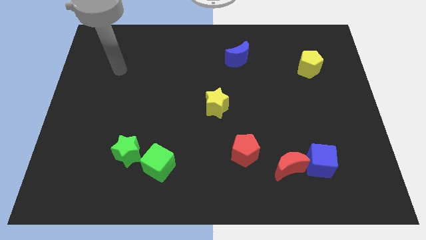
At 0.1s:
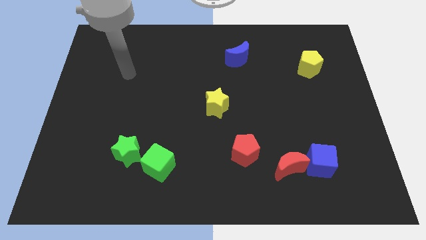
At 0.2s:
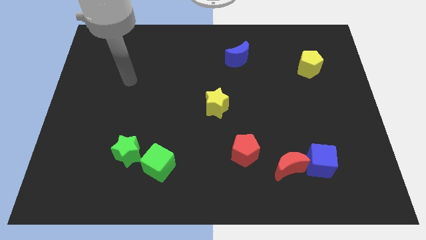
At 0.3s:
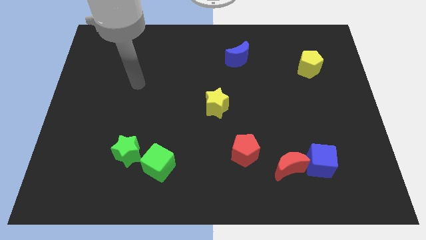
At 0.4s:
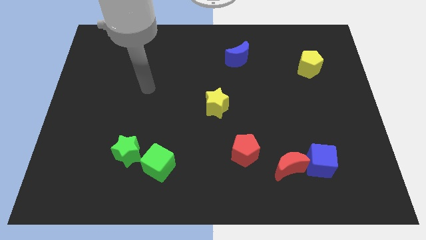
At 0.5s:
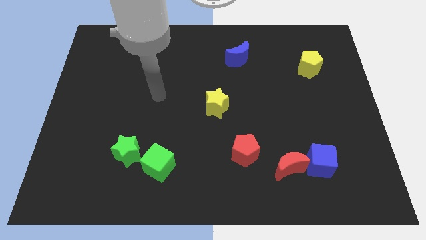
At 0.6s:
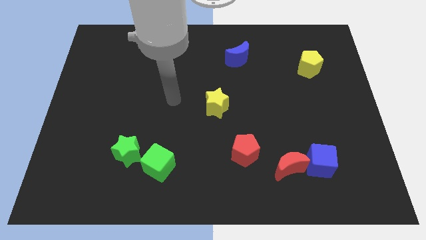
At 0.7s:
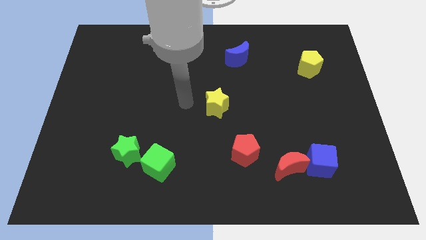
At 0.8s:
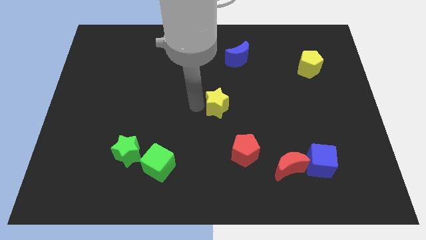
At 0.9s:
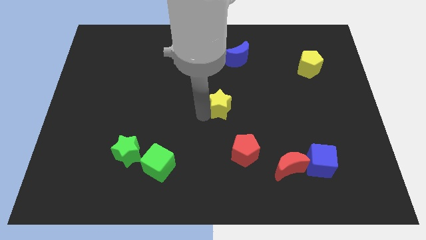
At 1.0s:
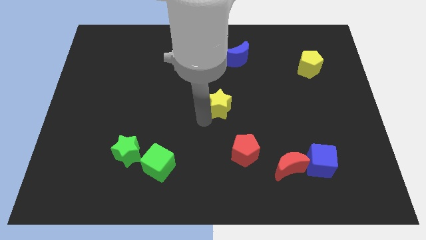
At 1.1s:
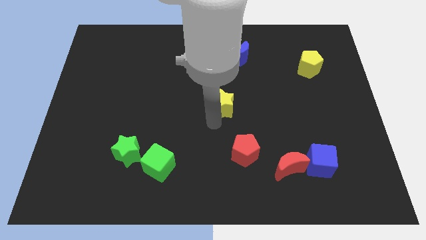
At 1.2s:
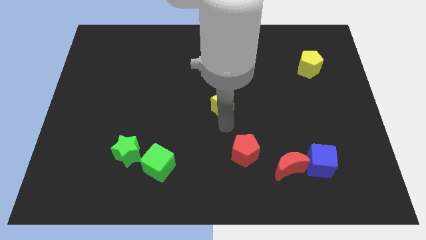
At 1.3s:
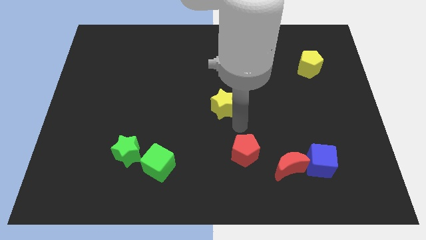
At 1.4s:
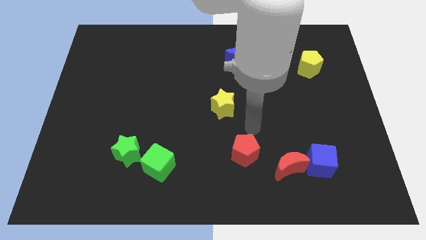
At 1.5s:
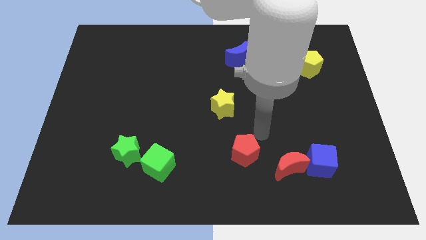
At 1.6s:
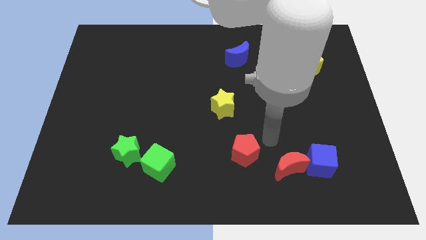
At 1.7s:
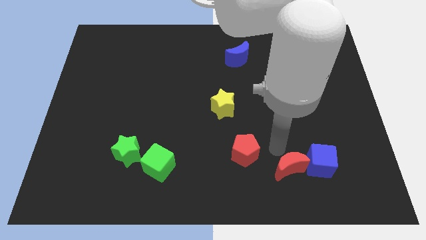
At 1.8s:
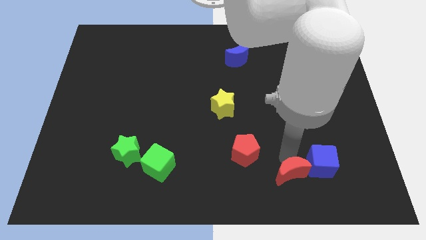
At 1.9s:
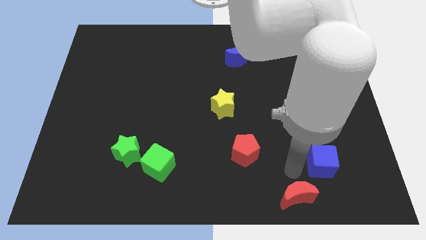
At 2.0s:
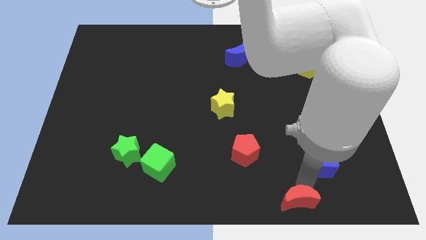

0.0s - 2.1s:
move the blue cube away from the red moon

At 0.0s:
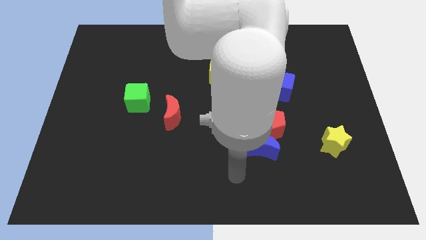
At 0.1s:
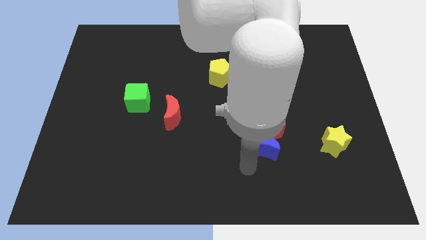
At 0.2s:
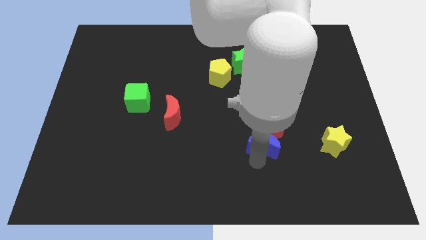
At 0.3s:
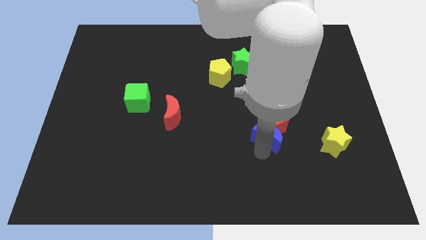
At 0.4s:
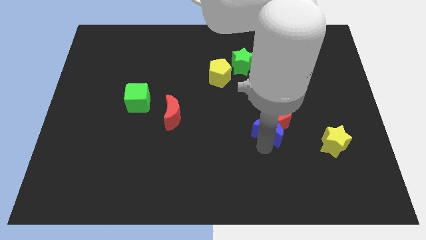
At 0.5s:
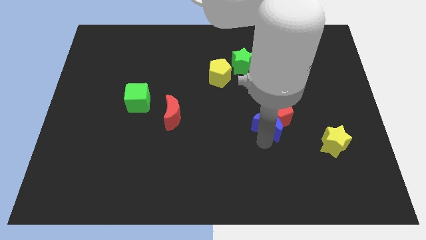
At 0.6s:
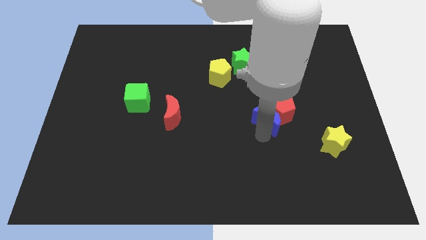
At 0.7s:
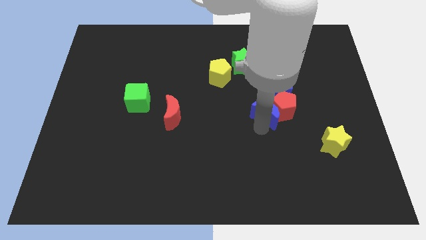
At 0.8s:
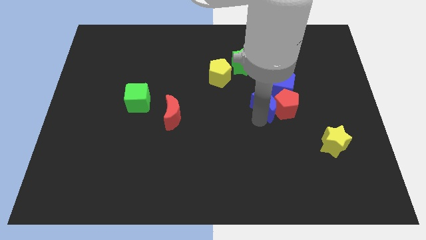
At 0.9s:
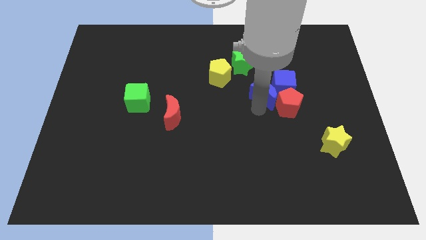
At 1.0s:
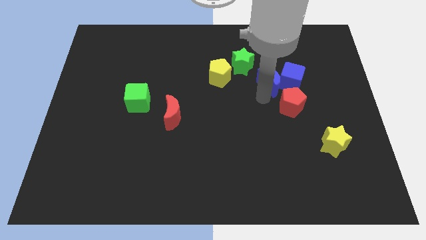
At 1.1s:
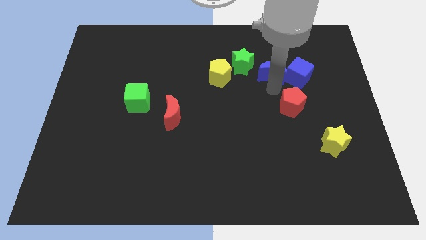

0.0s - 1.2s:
separate the red pentagon from the blue moon

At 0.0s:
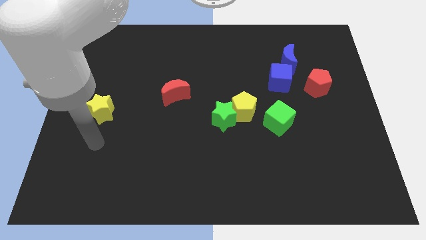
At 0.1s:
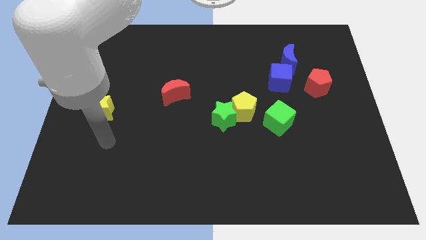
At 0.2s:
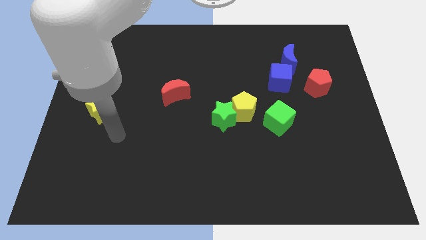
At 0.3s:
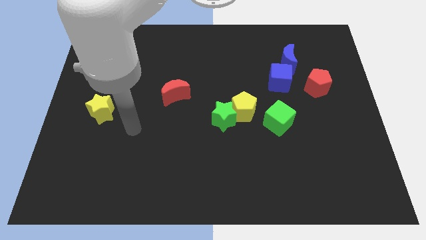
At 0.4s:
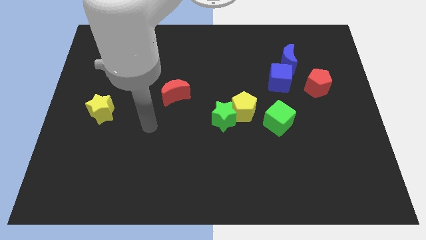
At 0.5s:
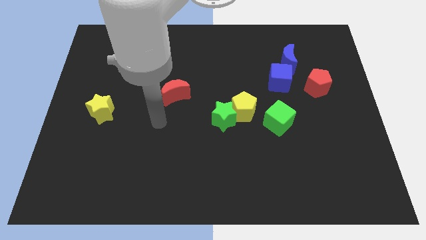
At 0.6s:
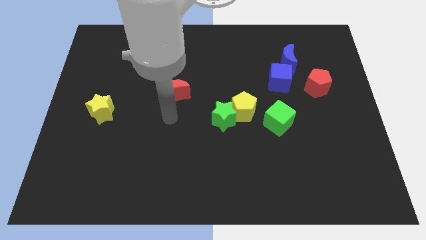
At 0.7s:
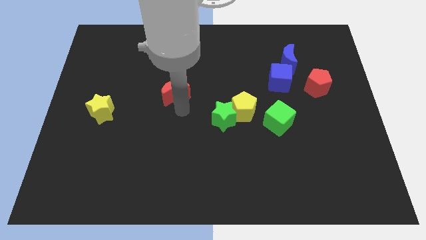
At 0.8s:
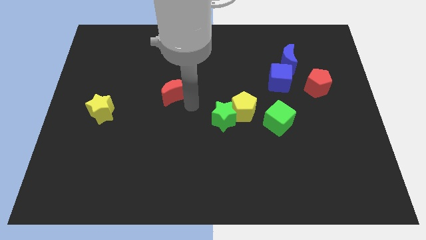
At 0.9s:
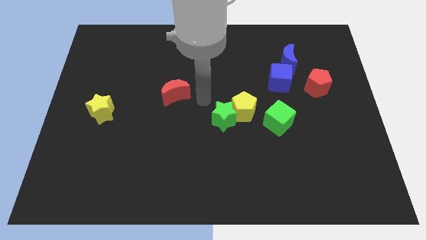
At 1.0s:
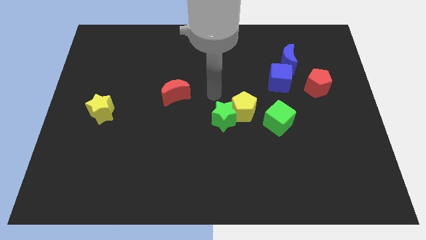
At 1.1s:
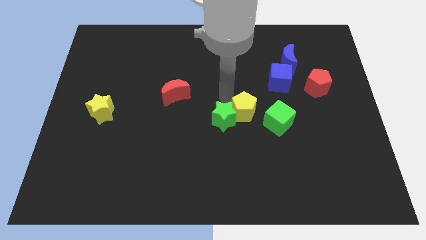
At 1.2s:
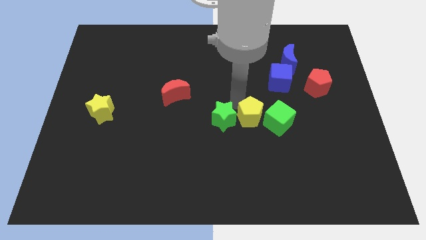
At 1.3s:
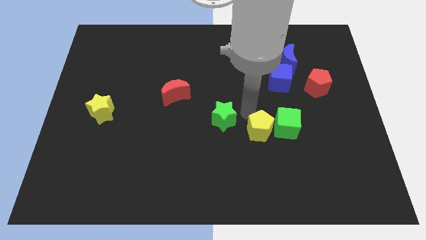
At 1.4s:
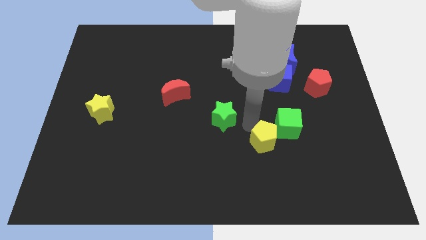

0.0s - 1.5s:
move the green star away from the yellow pentagon

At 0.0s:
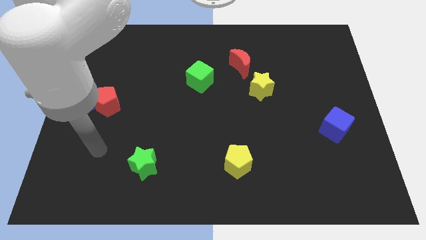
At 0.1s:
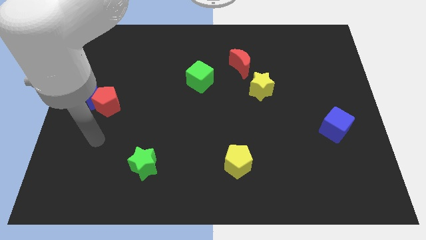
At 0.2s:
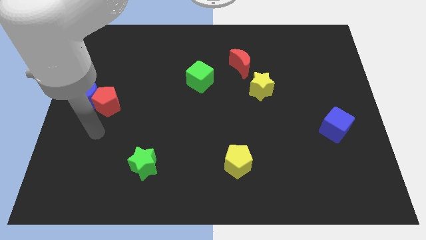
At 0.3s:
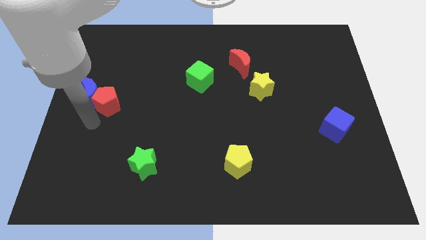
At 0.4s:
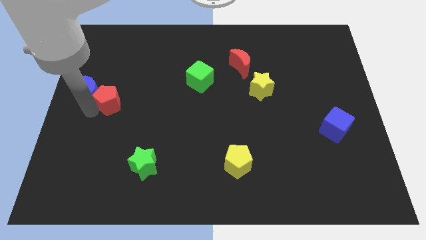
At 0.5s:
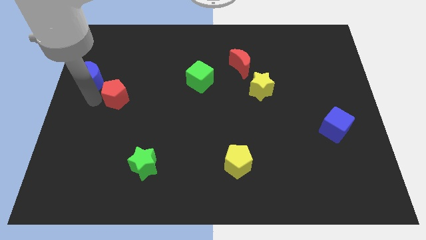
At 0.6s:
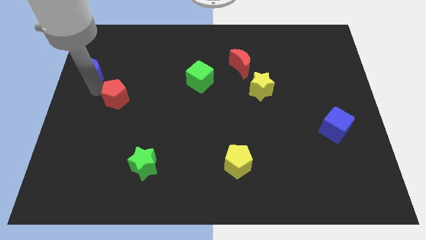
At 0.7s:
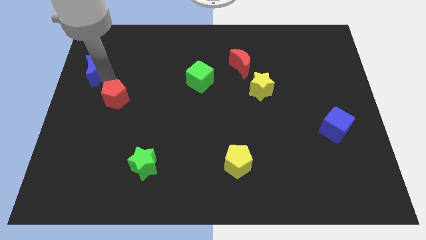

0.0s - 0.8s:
move the red pentagon away from the blue moon

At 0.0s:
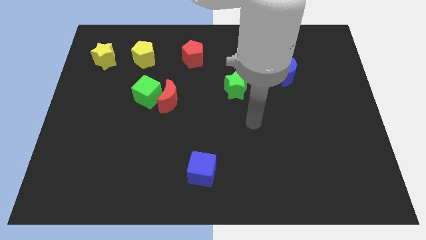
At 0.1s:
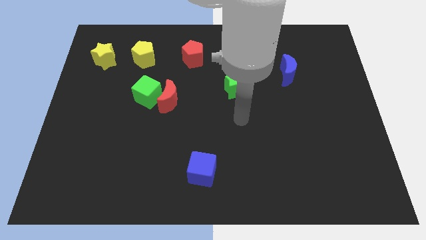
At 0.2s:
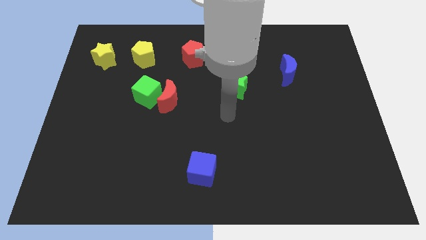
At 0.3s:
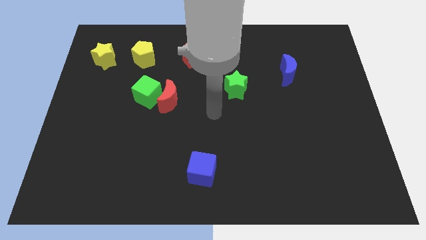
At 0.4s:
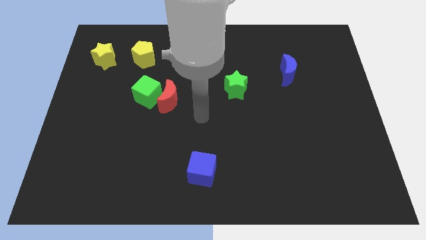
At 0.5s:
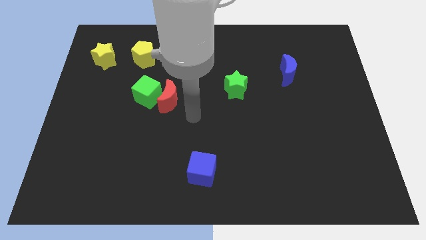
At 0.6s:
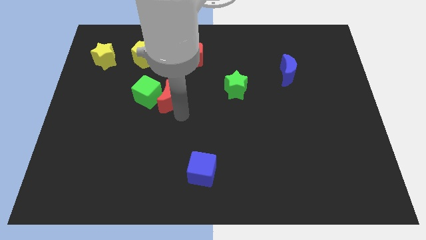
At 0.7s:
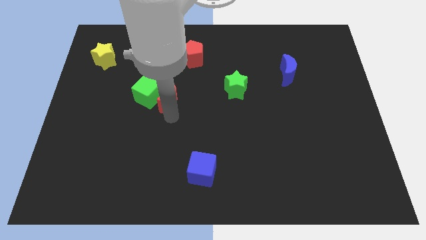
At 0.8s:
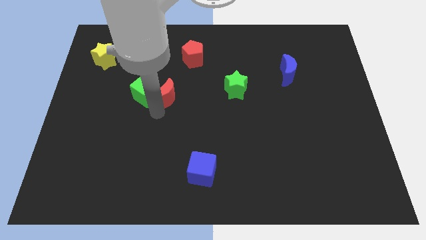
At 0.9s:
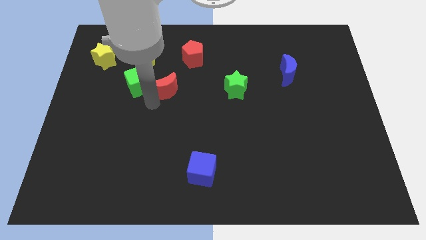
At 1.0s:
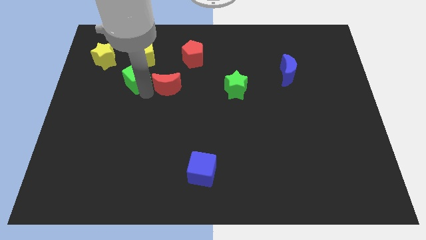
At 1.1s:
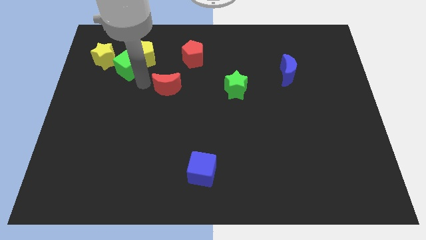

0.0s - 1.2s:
pull the red moon apart from the green cube

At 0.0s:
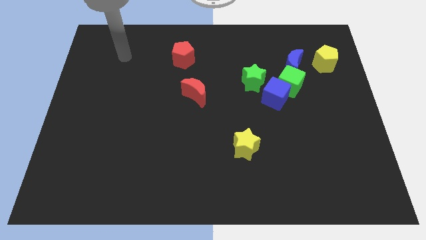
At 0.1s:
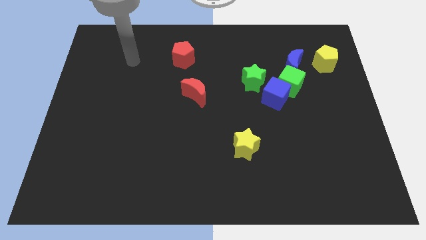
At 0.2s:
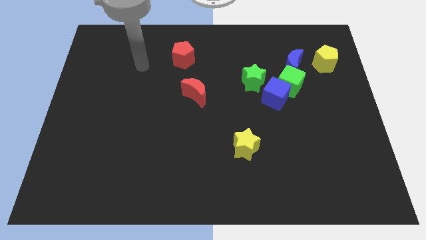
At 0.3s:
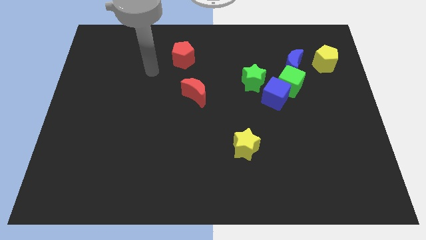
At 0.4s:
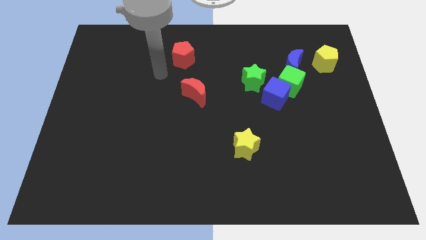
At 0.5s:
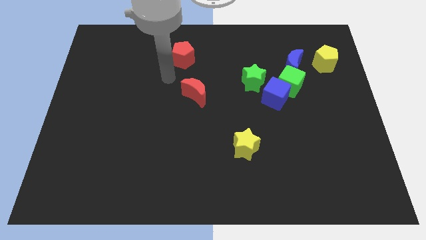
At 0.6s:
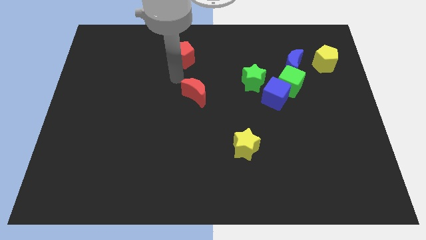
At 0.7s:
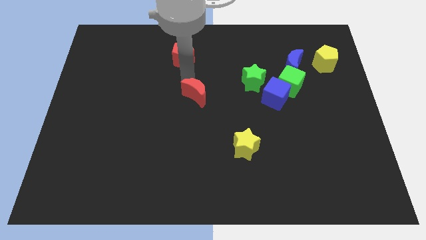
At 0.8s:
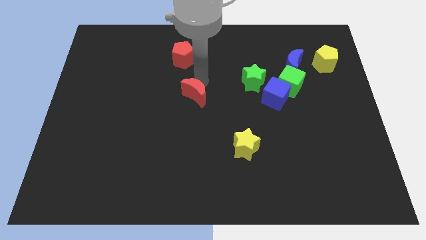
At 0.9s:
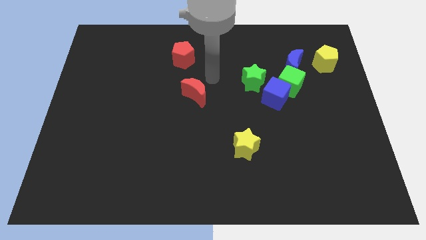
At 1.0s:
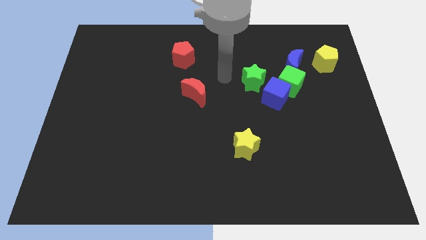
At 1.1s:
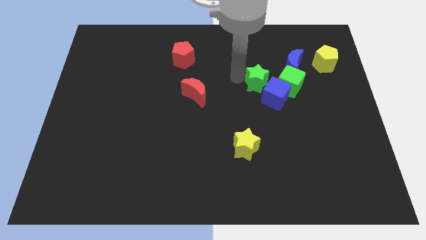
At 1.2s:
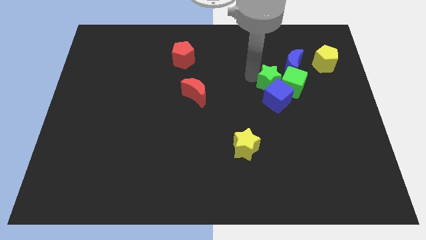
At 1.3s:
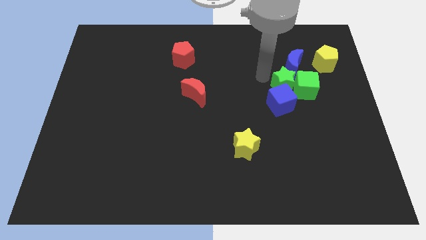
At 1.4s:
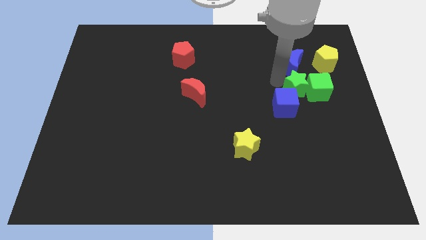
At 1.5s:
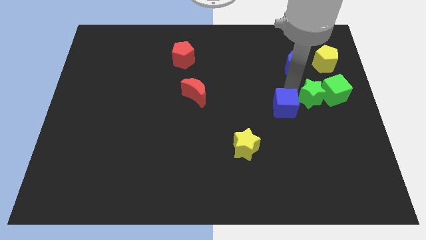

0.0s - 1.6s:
move the blue cube away from the green cube and green star

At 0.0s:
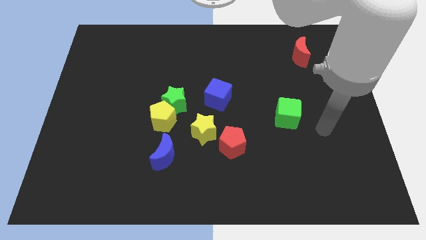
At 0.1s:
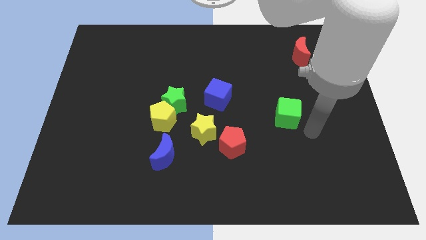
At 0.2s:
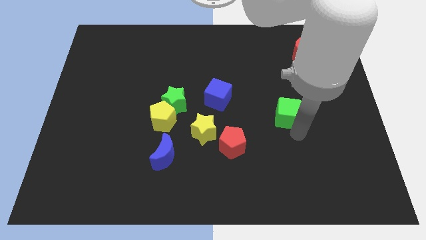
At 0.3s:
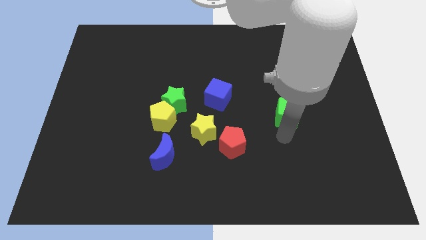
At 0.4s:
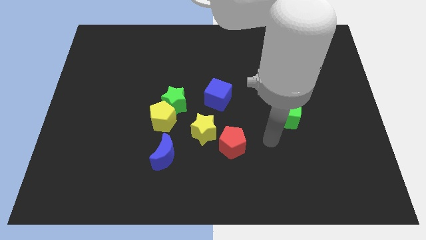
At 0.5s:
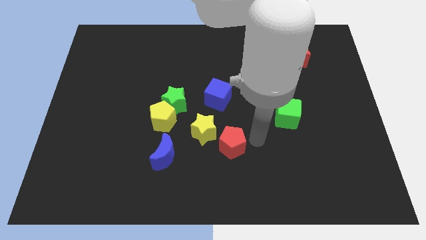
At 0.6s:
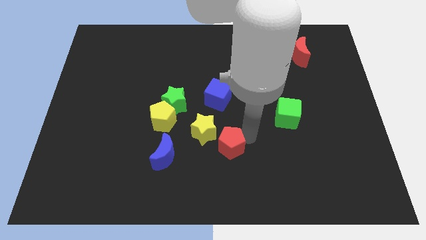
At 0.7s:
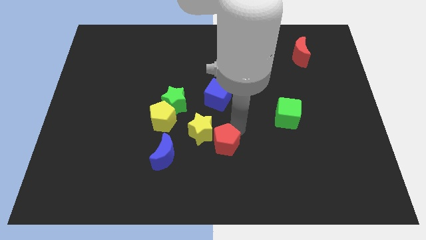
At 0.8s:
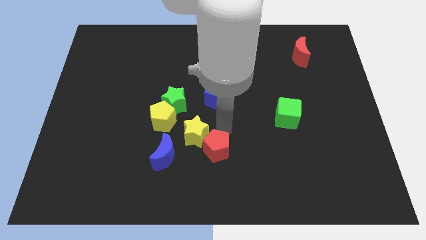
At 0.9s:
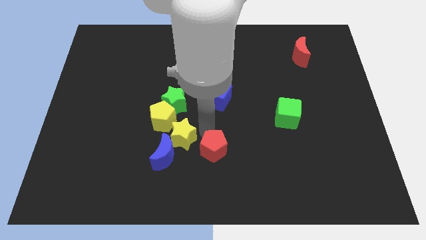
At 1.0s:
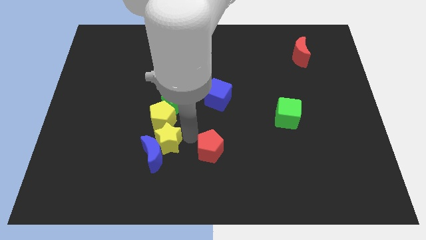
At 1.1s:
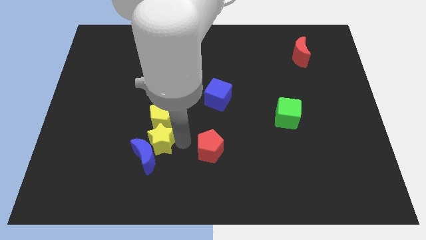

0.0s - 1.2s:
move the red pentagon away from the yellow star
